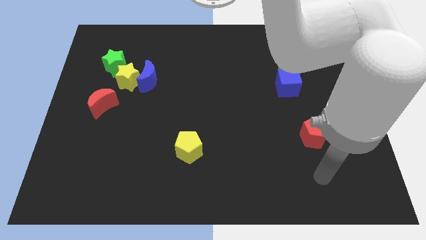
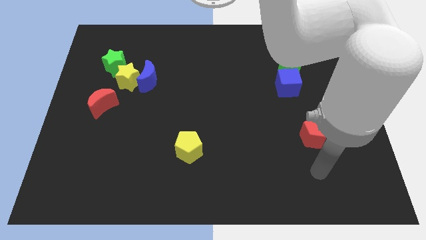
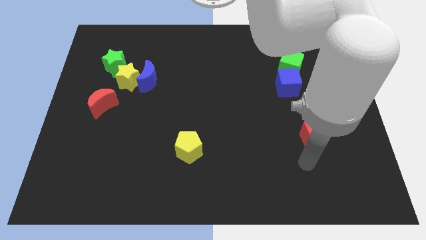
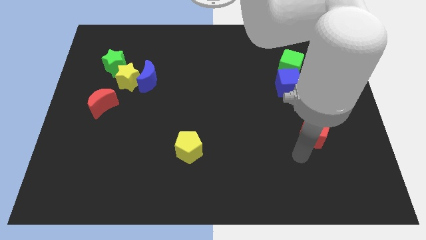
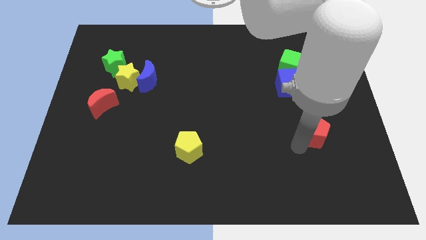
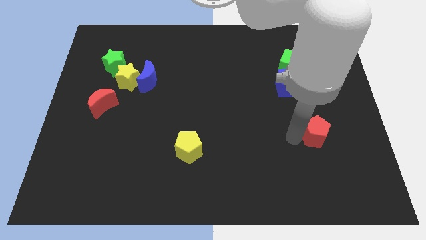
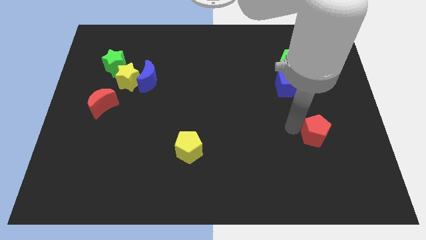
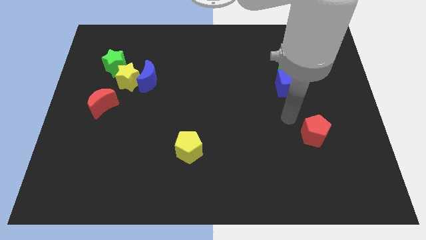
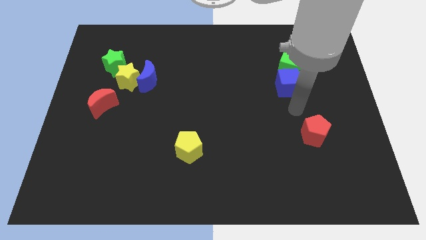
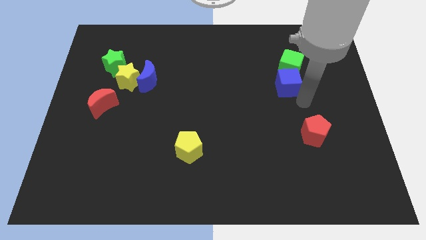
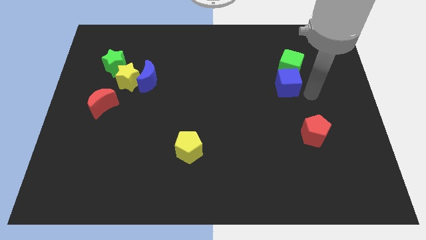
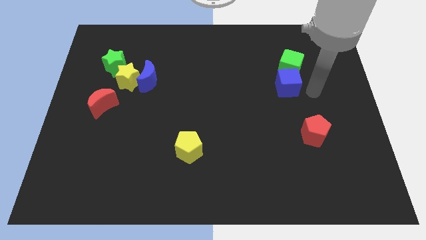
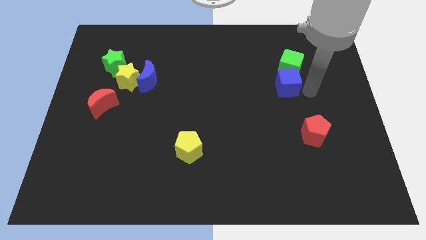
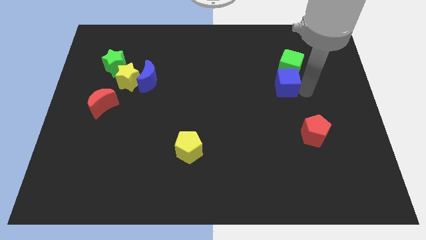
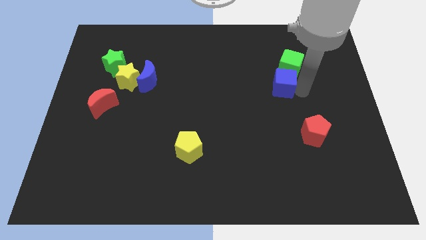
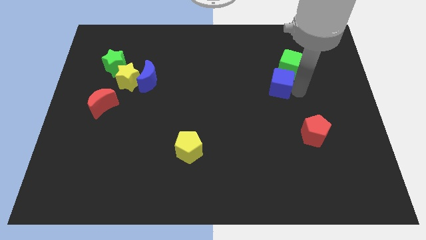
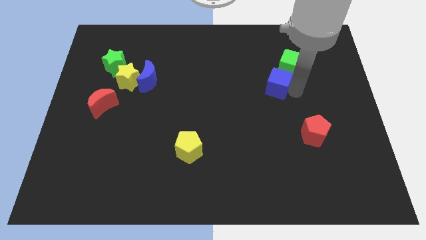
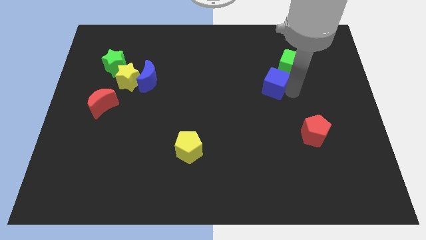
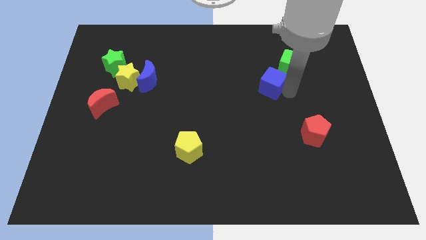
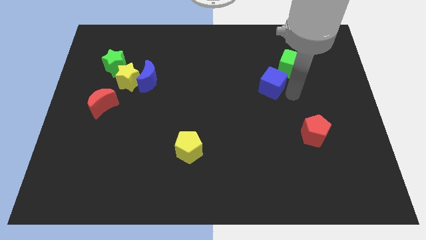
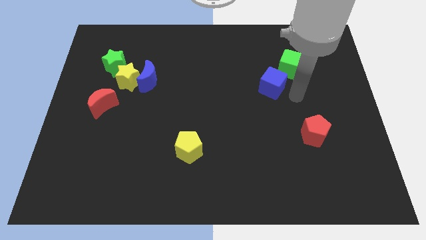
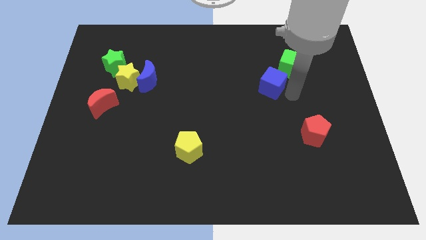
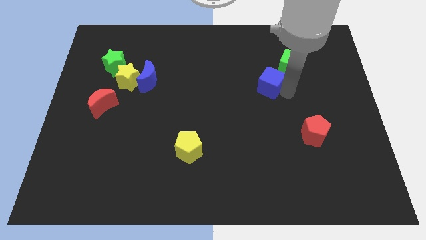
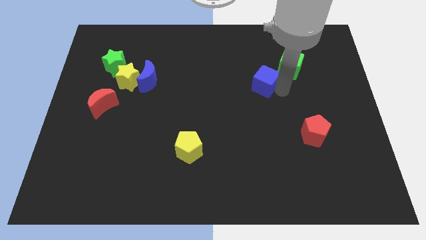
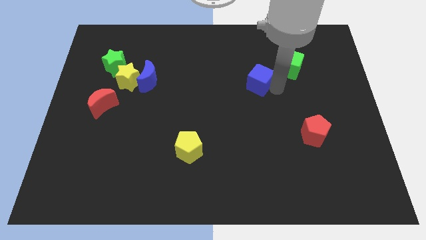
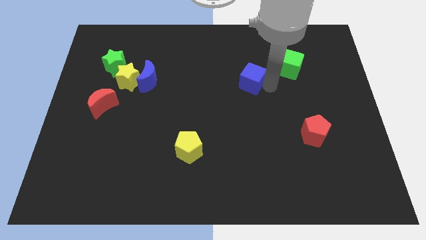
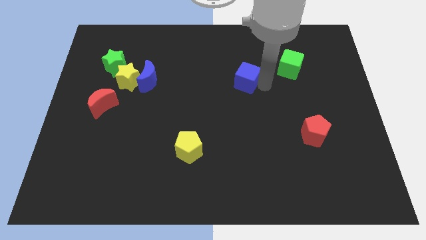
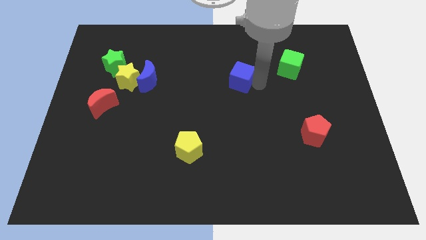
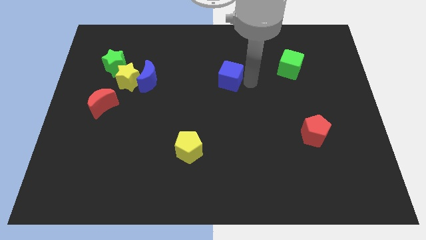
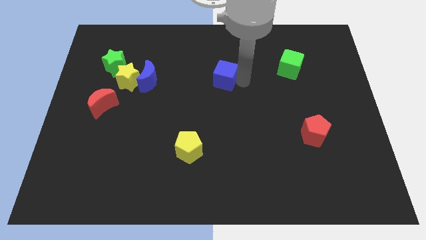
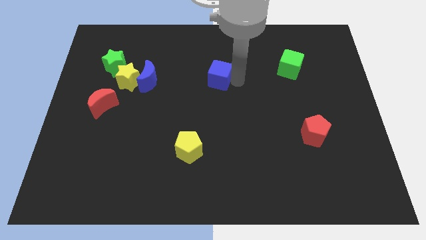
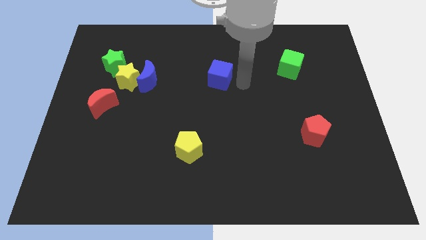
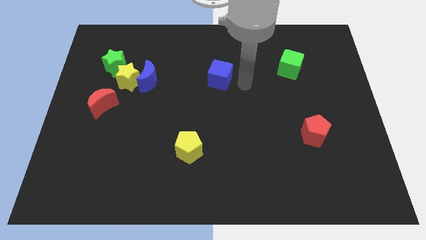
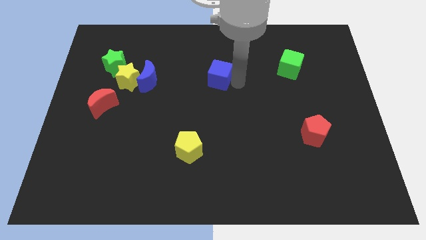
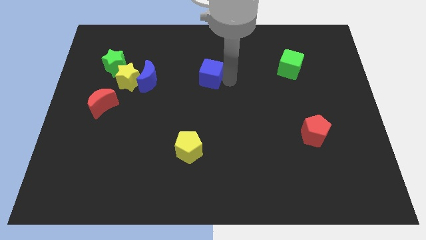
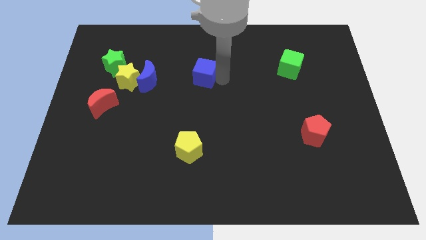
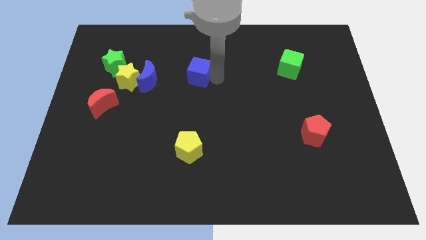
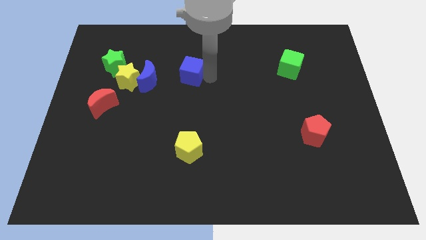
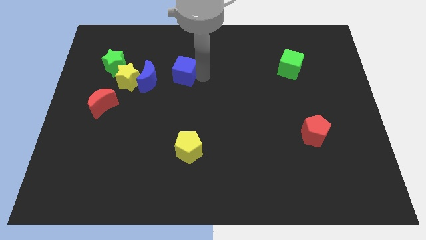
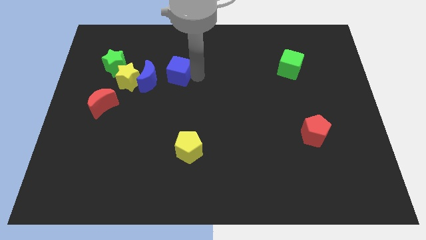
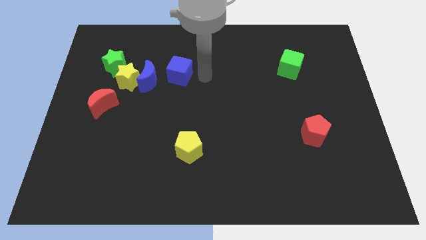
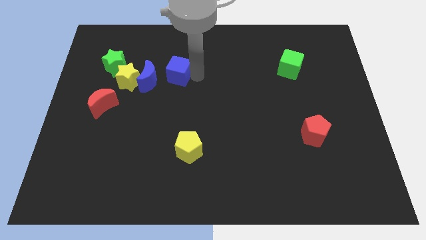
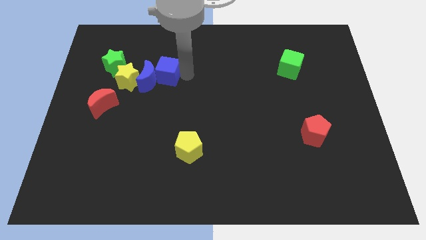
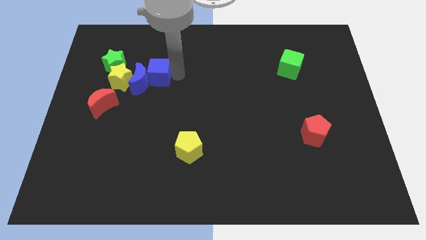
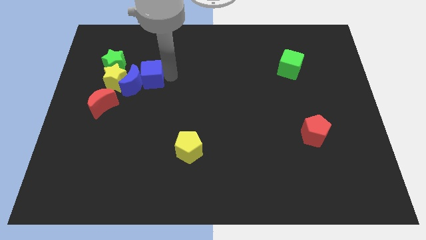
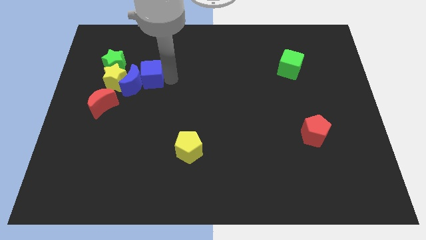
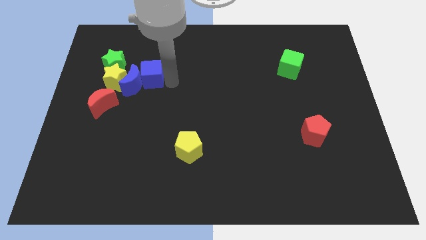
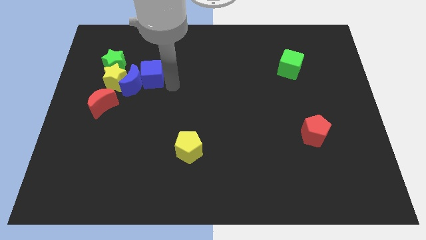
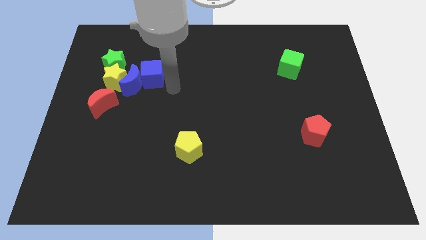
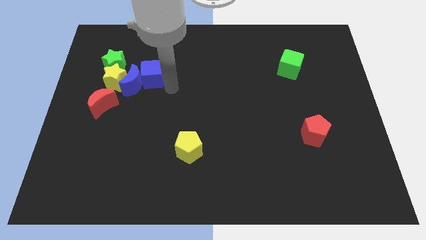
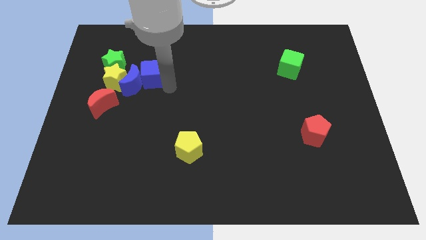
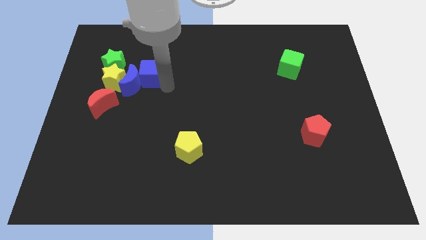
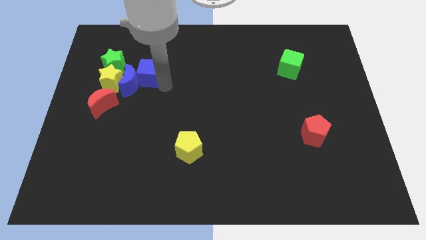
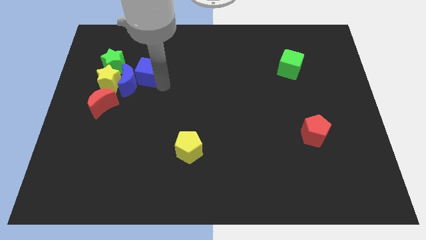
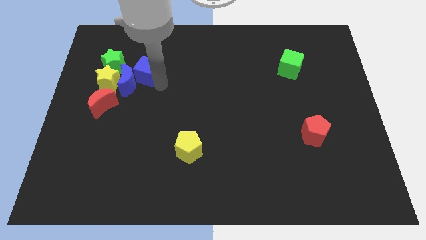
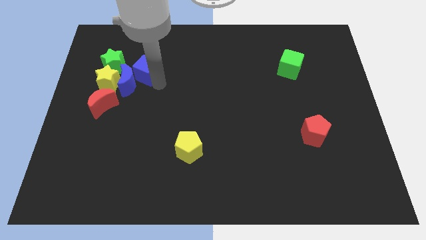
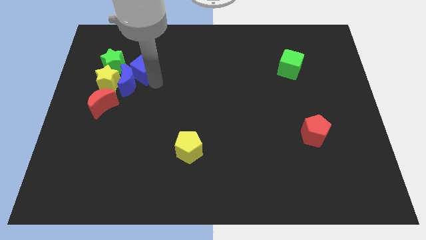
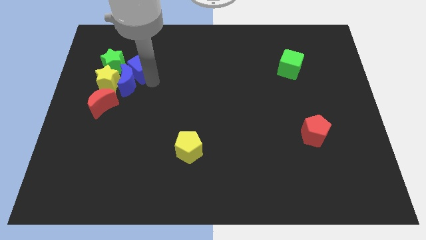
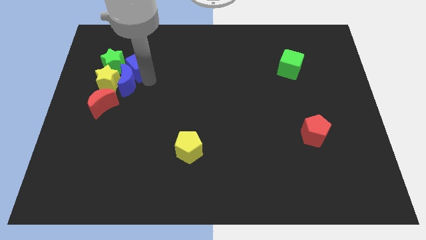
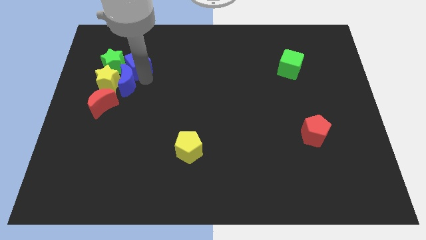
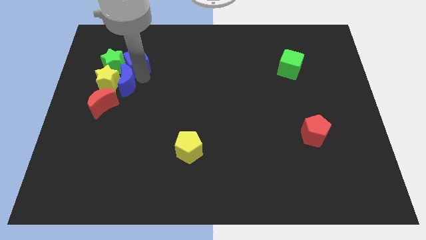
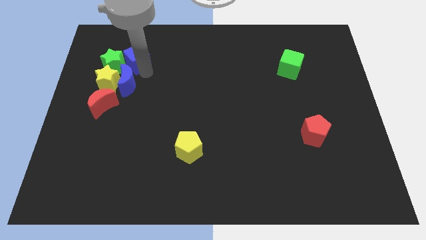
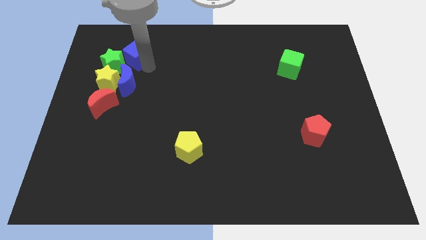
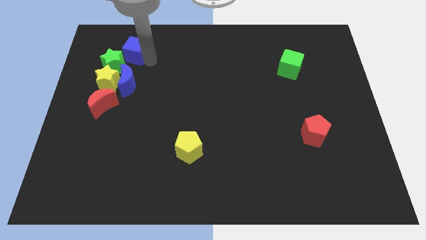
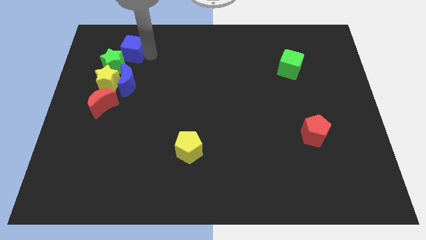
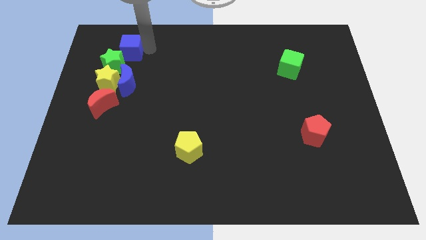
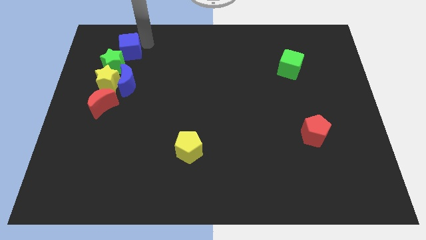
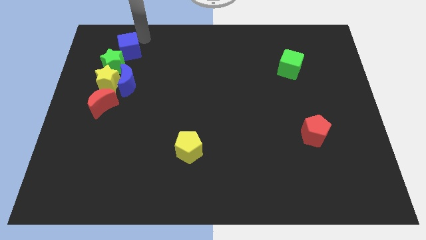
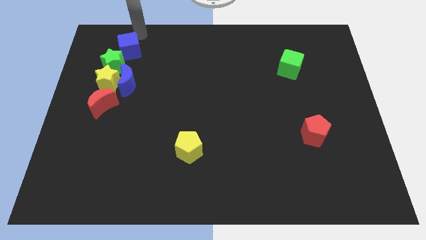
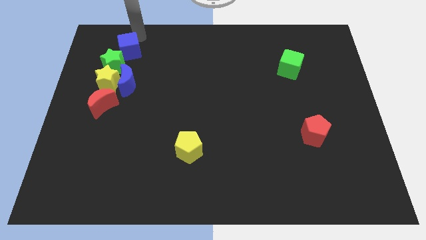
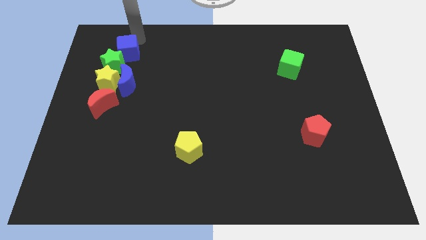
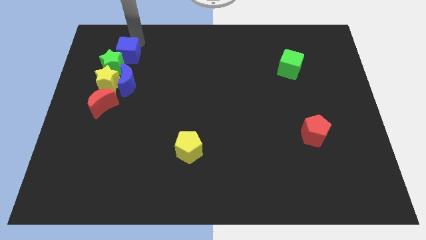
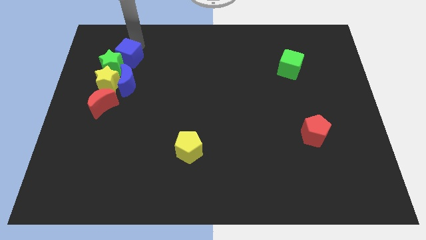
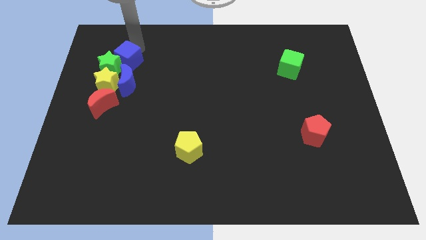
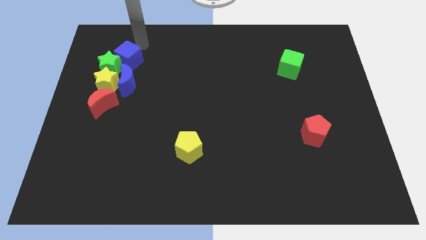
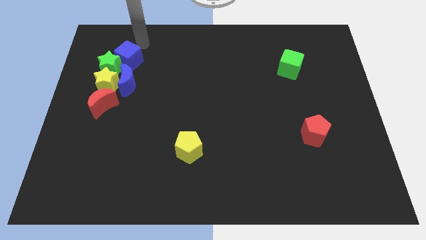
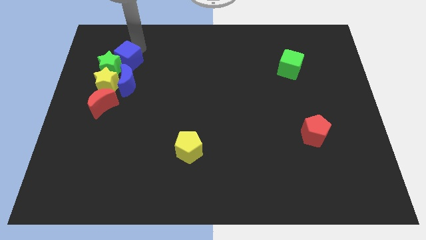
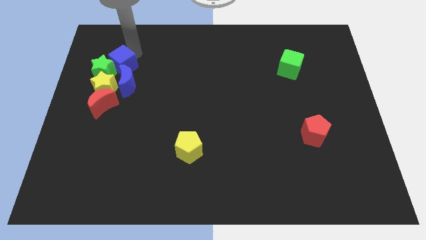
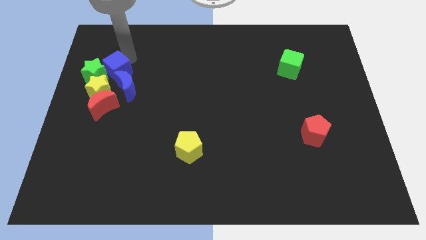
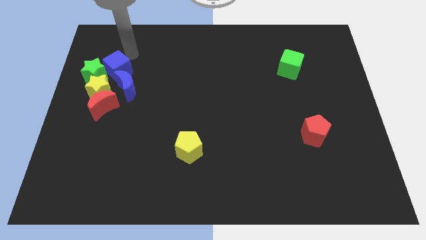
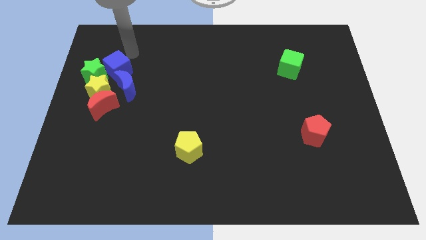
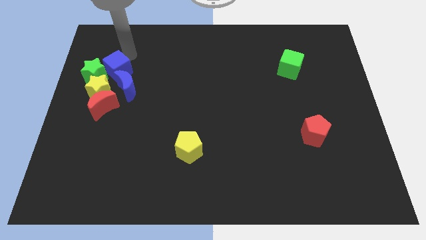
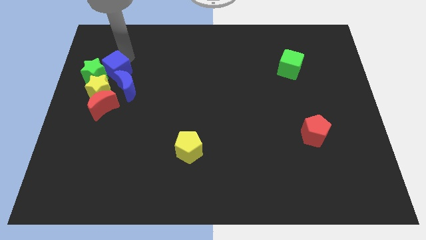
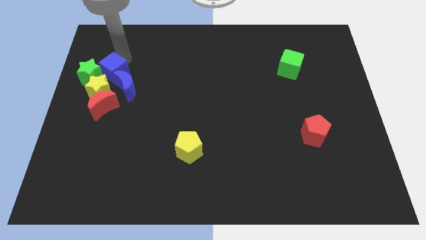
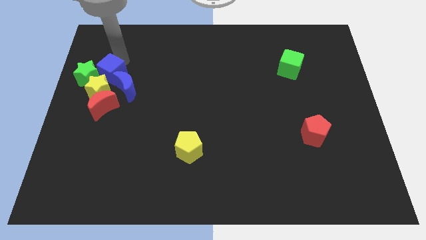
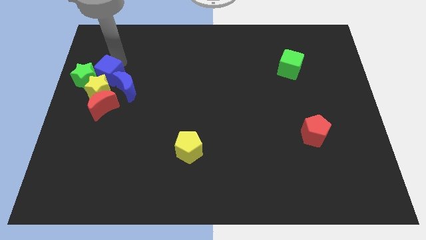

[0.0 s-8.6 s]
move the blue cube to the yellow star
